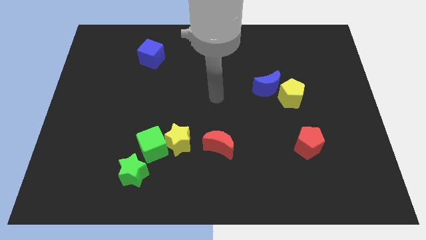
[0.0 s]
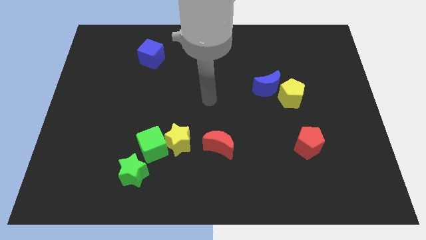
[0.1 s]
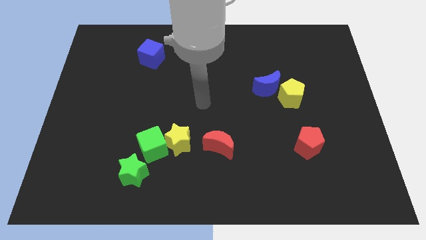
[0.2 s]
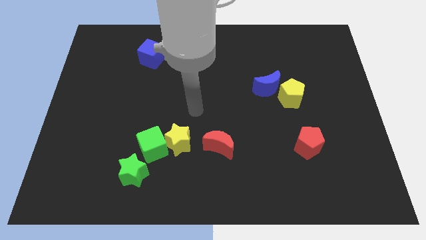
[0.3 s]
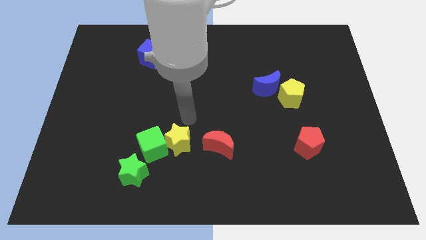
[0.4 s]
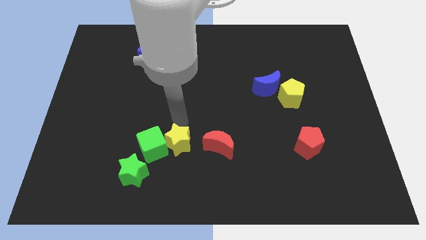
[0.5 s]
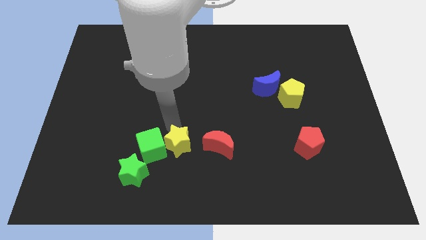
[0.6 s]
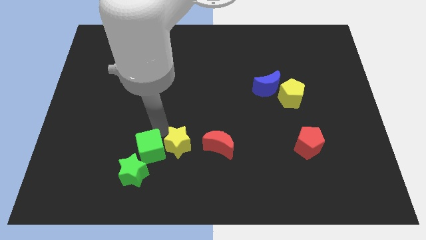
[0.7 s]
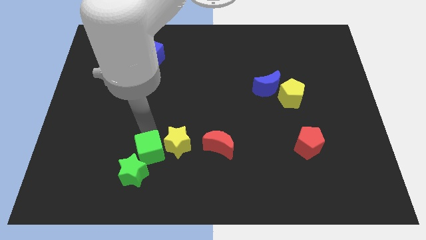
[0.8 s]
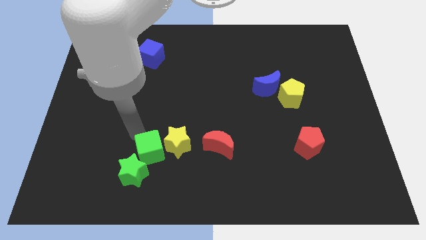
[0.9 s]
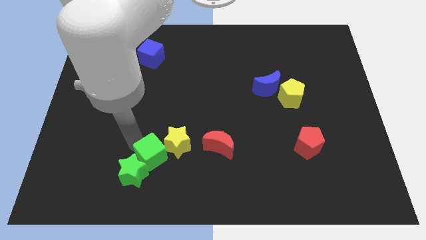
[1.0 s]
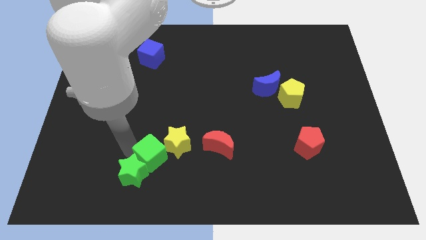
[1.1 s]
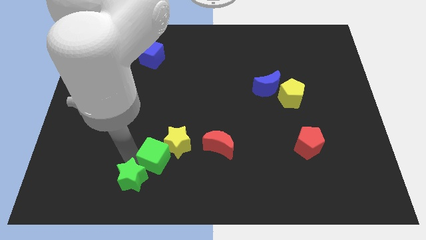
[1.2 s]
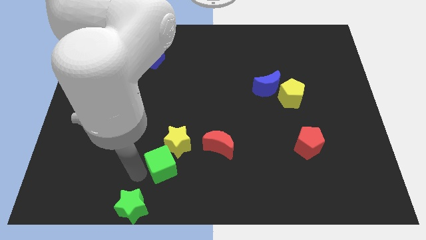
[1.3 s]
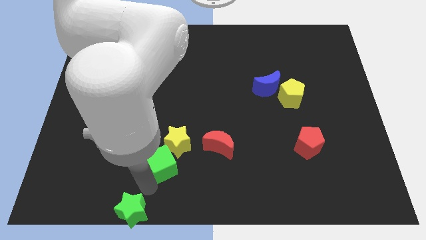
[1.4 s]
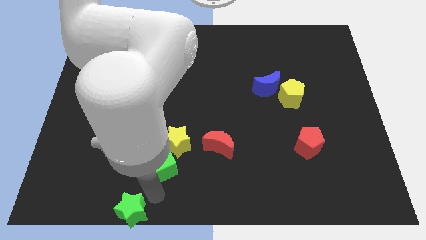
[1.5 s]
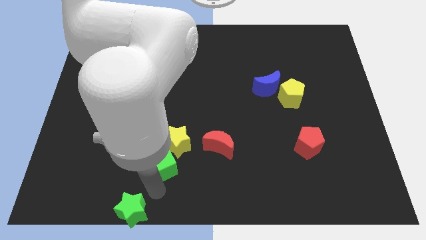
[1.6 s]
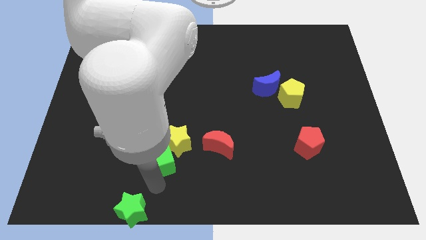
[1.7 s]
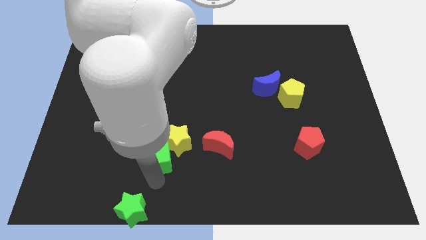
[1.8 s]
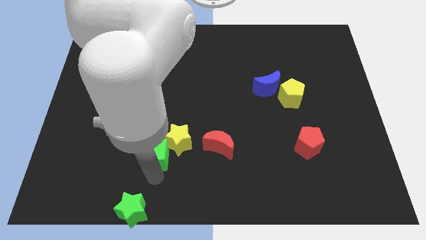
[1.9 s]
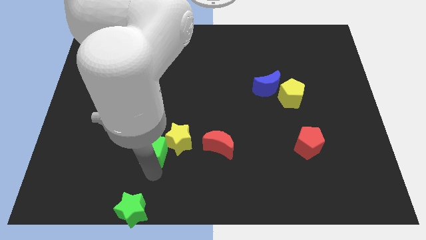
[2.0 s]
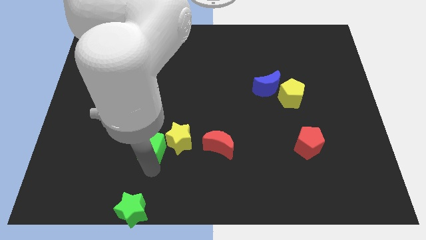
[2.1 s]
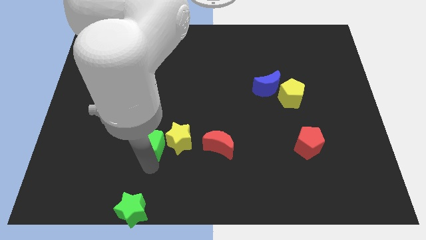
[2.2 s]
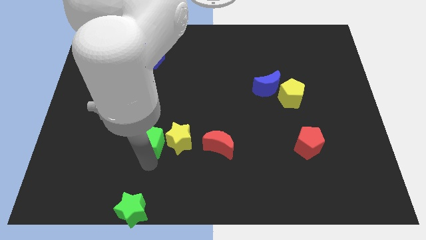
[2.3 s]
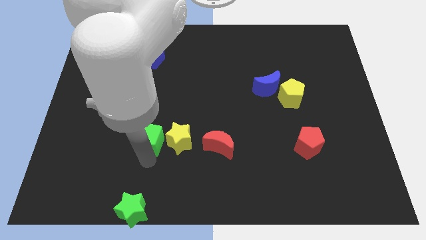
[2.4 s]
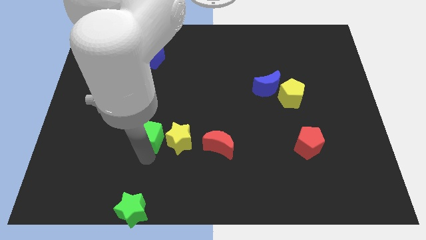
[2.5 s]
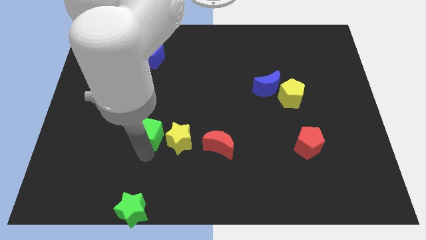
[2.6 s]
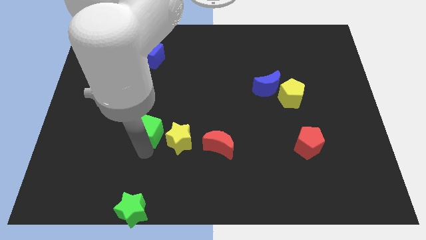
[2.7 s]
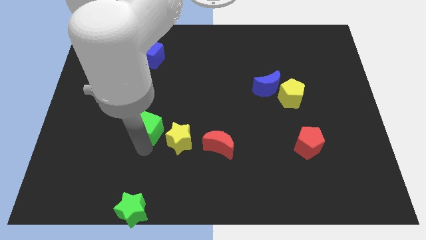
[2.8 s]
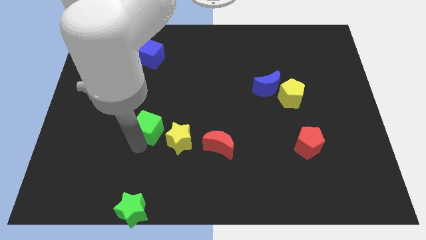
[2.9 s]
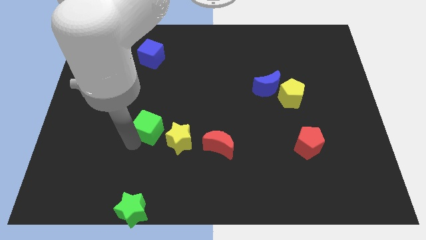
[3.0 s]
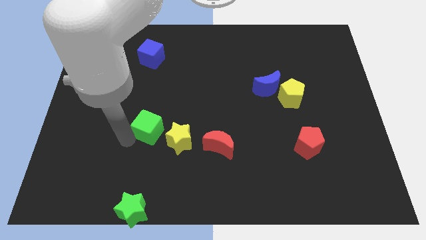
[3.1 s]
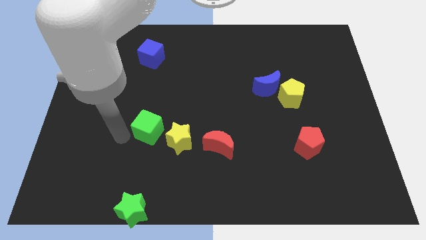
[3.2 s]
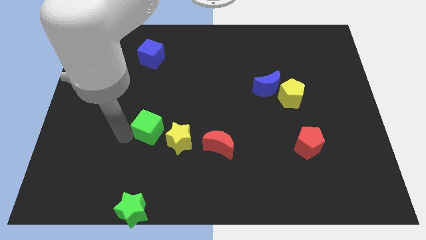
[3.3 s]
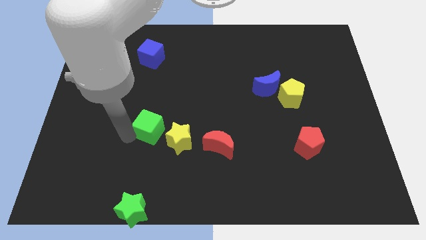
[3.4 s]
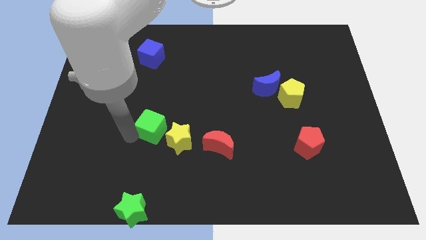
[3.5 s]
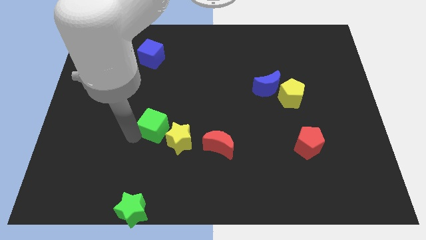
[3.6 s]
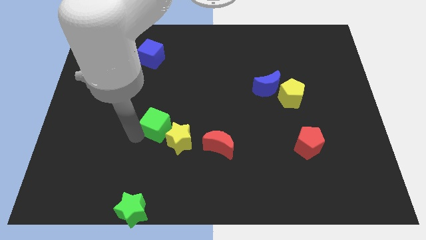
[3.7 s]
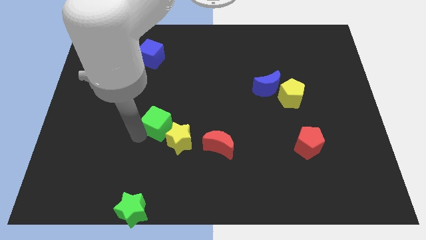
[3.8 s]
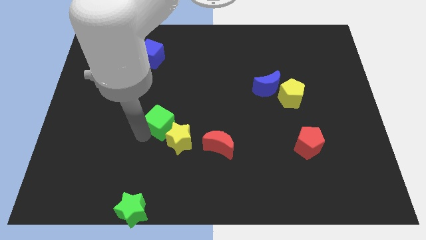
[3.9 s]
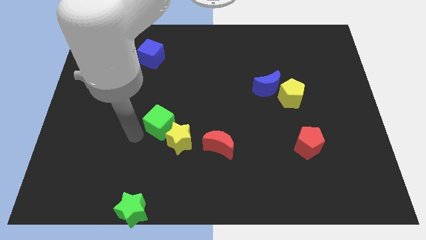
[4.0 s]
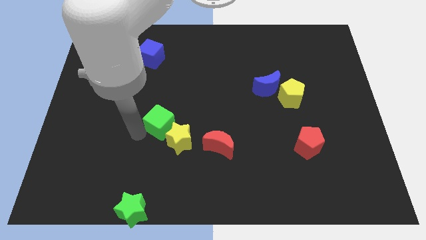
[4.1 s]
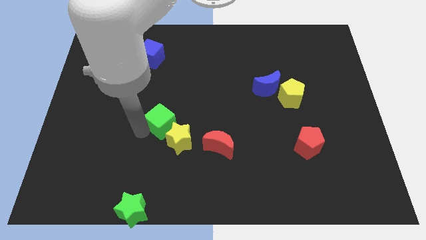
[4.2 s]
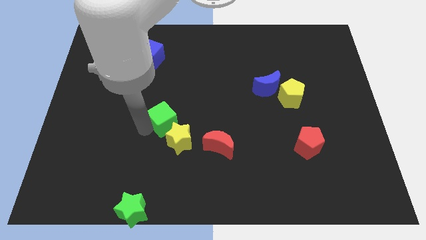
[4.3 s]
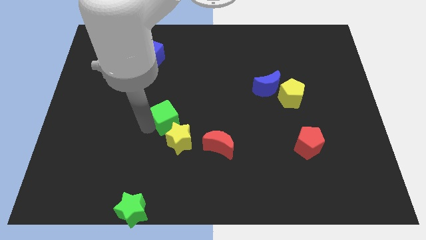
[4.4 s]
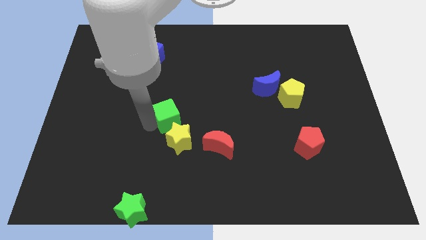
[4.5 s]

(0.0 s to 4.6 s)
push the green cube upwards and right somewhat

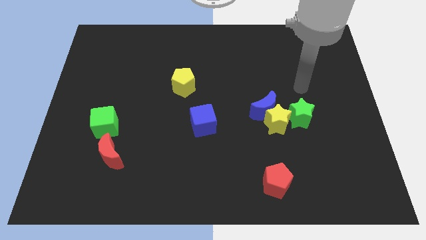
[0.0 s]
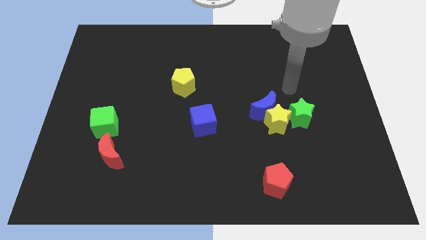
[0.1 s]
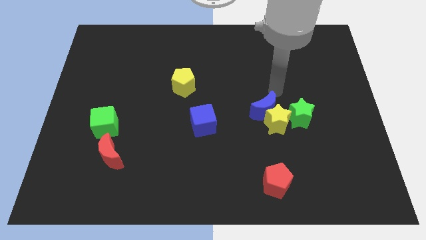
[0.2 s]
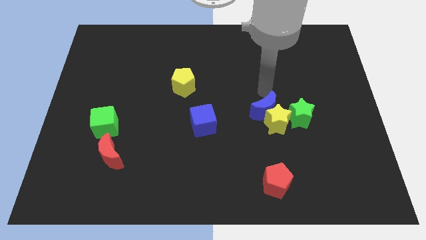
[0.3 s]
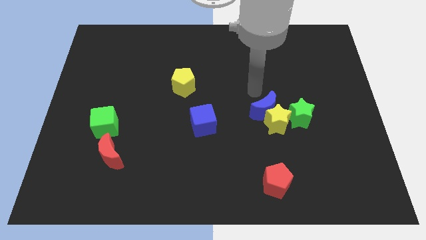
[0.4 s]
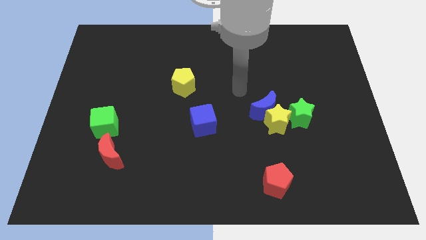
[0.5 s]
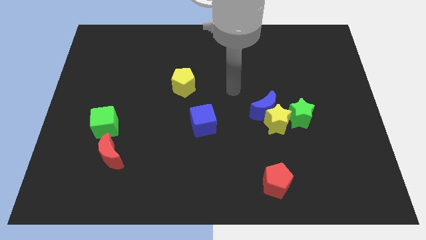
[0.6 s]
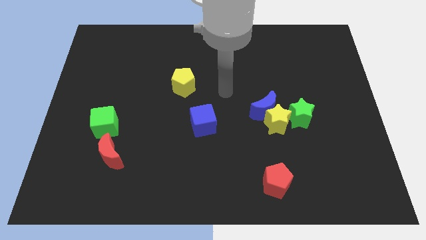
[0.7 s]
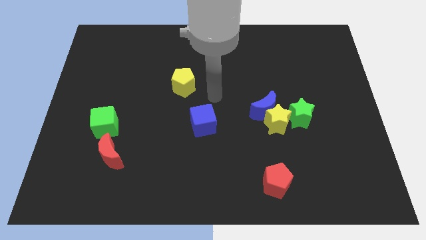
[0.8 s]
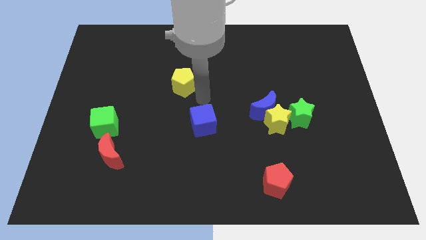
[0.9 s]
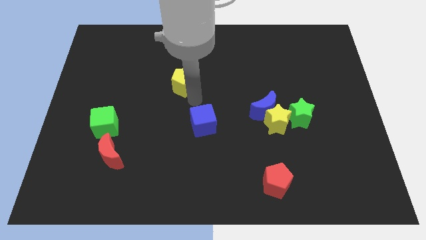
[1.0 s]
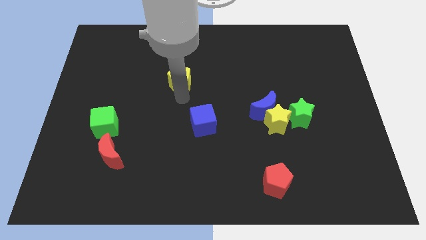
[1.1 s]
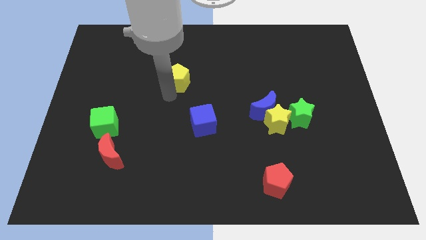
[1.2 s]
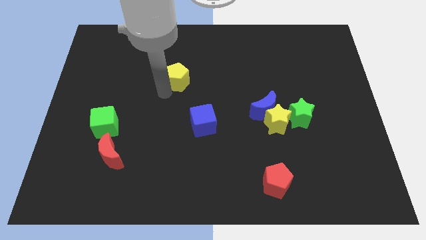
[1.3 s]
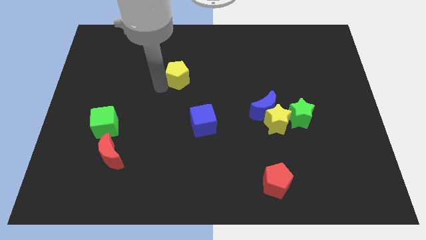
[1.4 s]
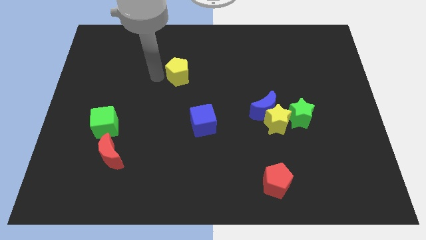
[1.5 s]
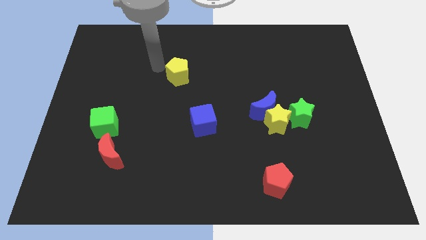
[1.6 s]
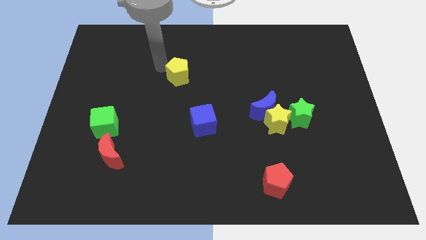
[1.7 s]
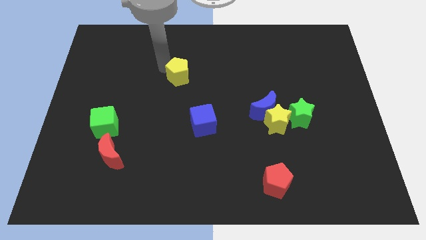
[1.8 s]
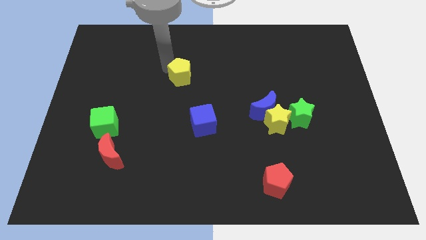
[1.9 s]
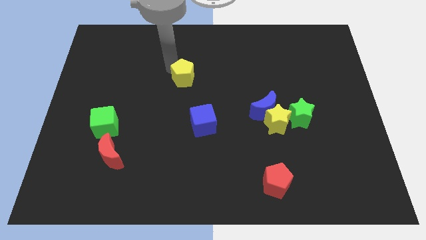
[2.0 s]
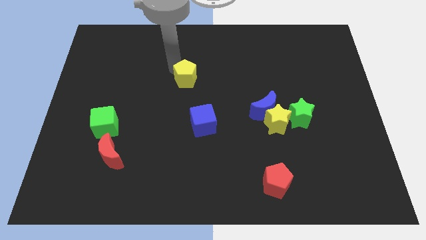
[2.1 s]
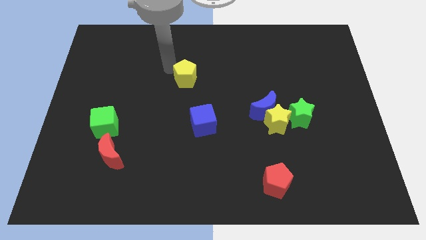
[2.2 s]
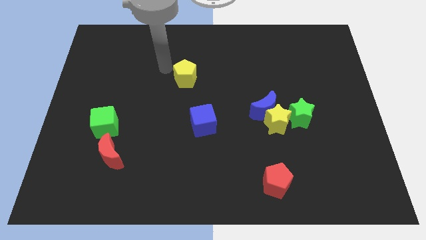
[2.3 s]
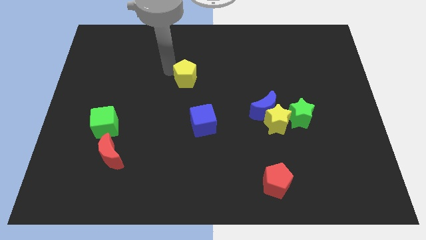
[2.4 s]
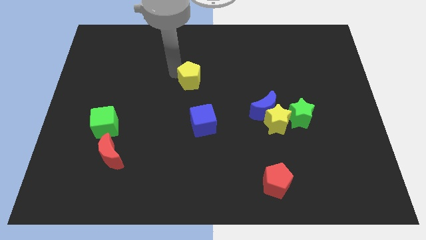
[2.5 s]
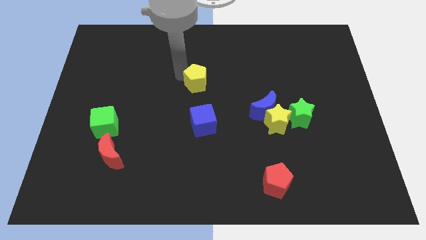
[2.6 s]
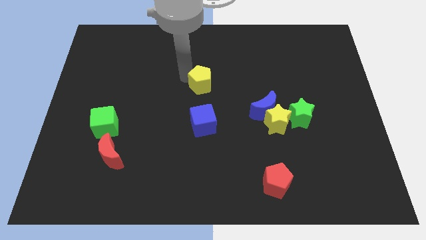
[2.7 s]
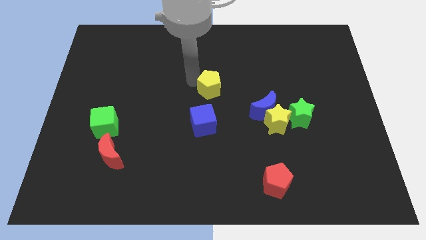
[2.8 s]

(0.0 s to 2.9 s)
push the yellow pentagon right slightly
